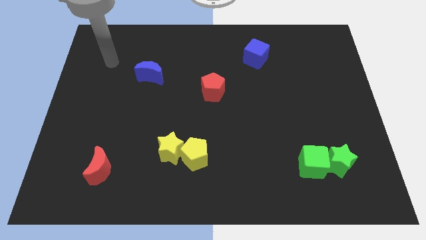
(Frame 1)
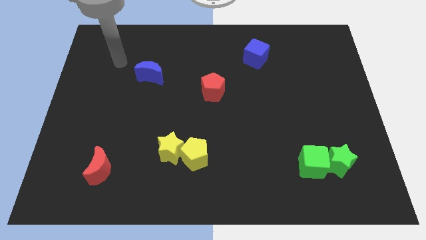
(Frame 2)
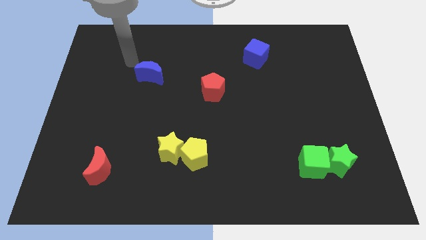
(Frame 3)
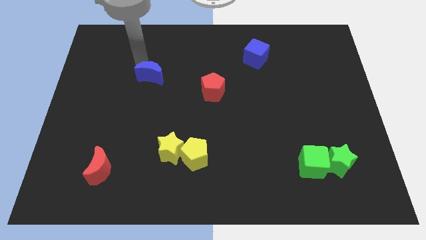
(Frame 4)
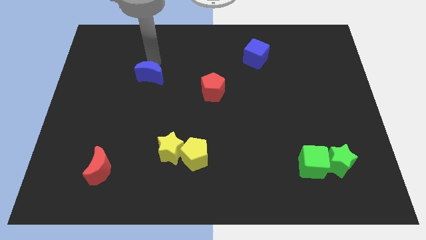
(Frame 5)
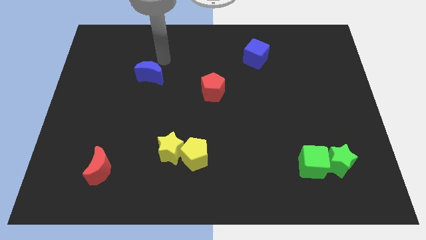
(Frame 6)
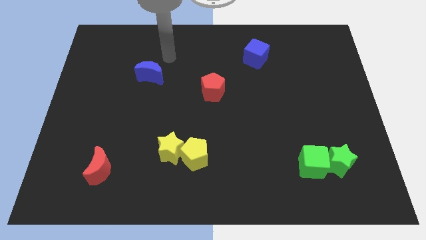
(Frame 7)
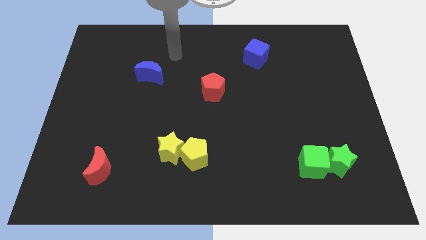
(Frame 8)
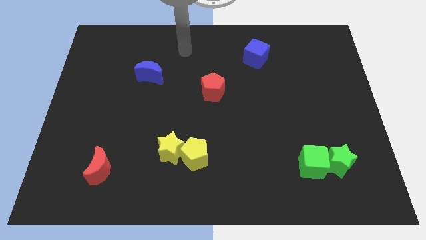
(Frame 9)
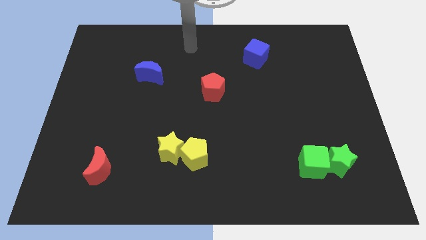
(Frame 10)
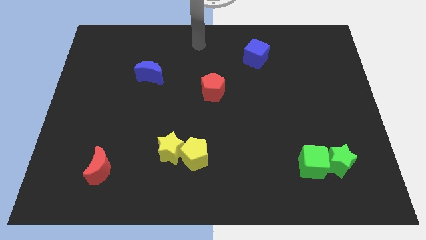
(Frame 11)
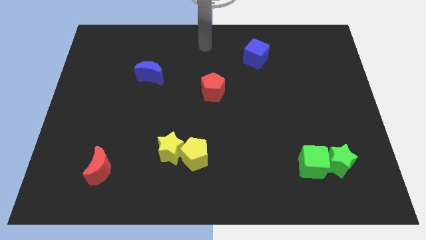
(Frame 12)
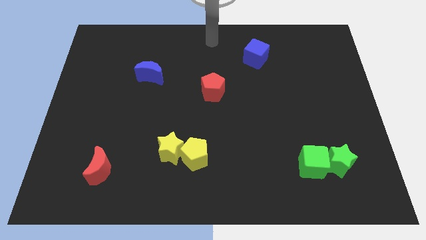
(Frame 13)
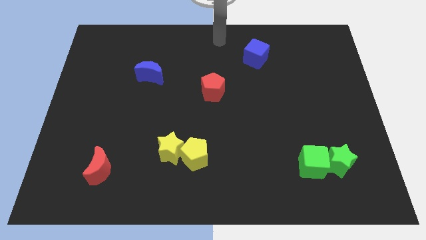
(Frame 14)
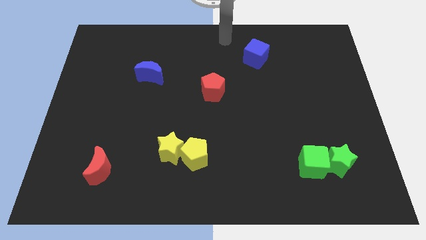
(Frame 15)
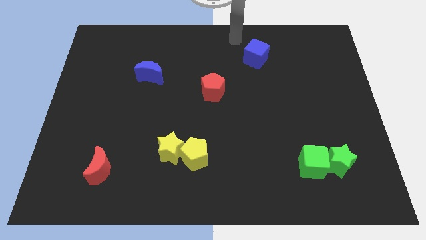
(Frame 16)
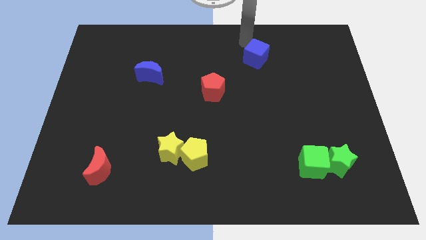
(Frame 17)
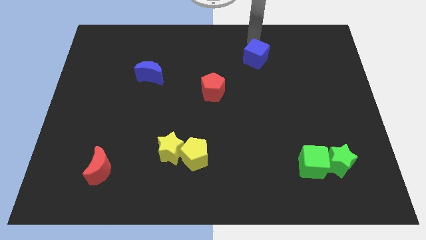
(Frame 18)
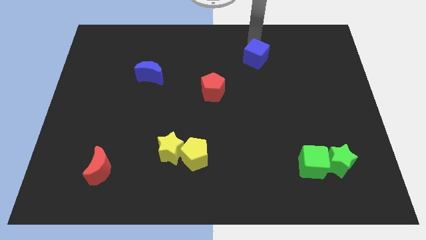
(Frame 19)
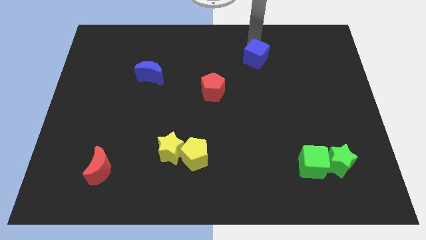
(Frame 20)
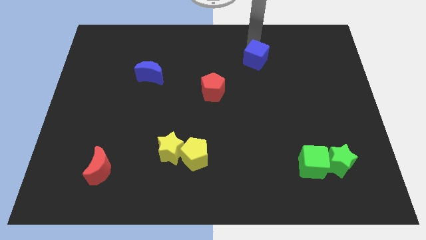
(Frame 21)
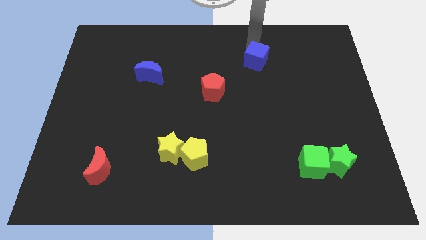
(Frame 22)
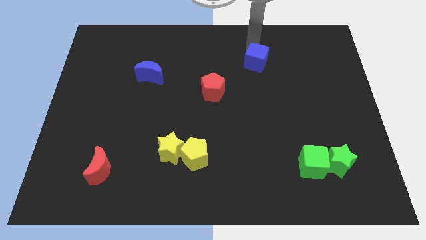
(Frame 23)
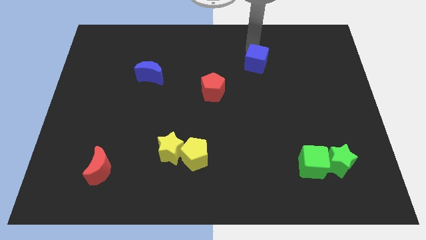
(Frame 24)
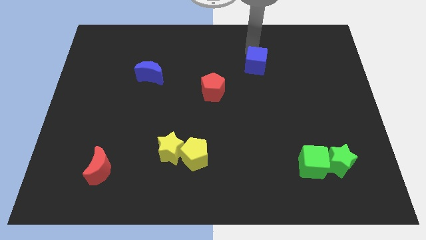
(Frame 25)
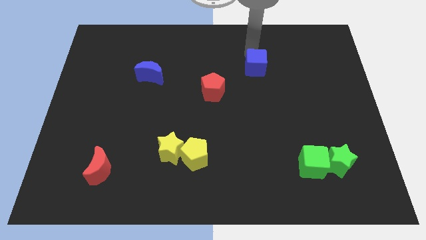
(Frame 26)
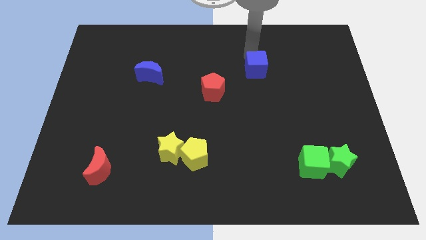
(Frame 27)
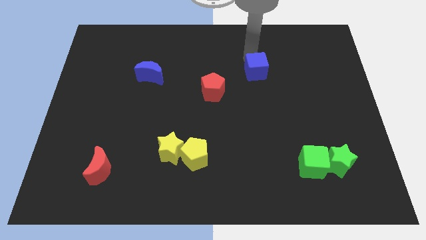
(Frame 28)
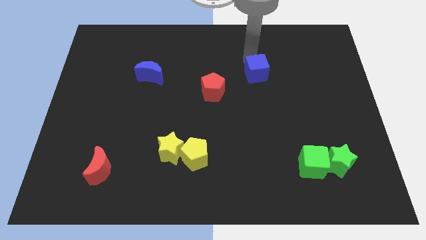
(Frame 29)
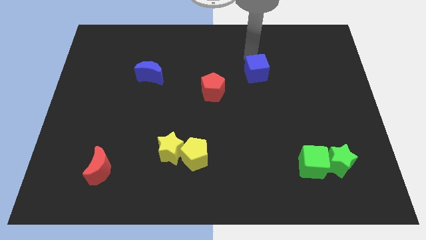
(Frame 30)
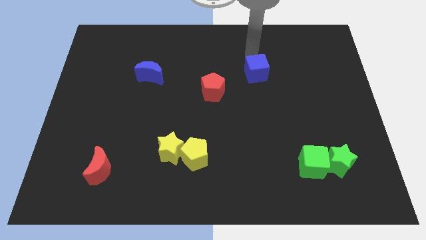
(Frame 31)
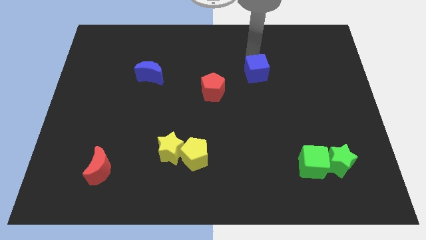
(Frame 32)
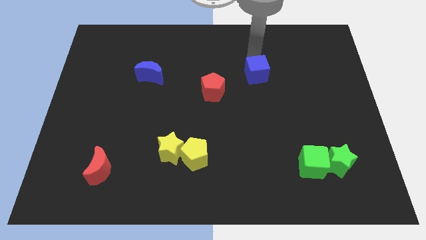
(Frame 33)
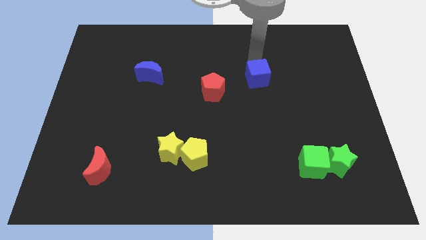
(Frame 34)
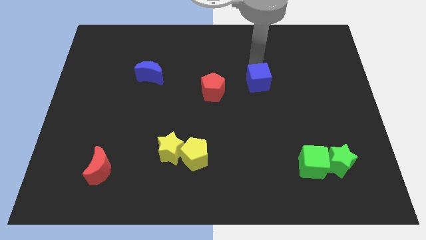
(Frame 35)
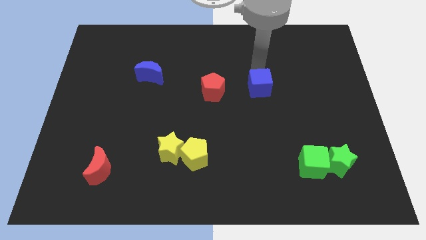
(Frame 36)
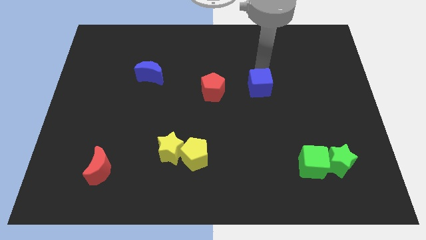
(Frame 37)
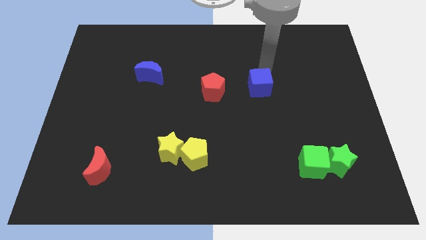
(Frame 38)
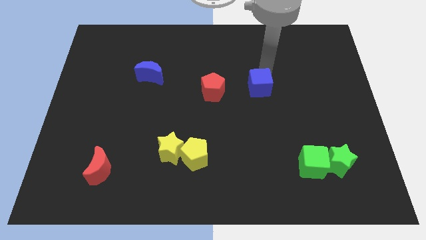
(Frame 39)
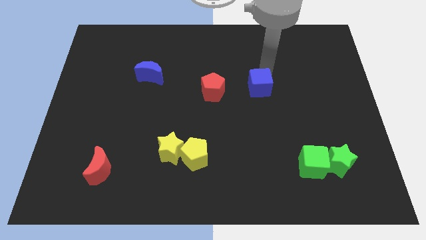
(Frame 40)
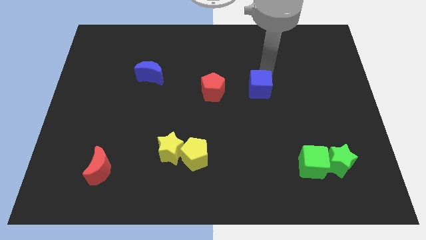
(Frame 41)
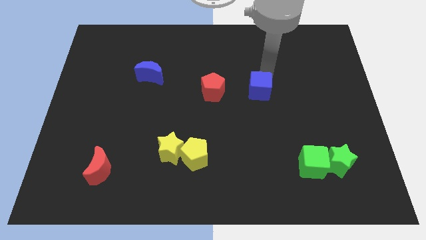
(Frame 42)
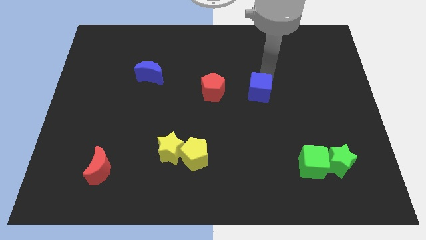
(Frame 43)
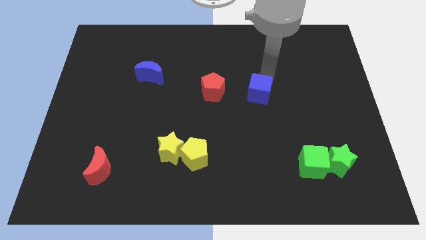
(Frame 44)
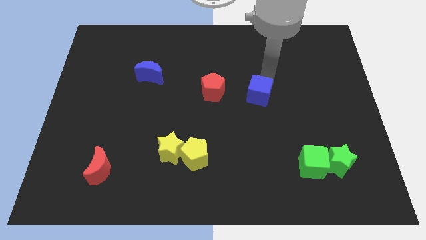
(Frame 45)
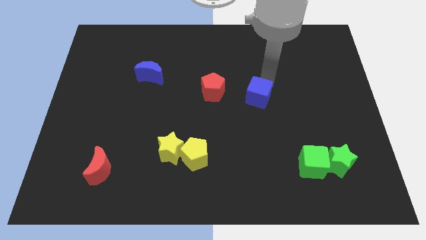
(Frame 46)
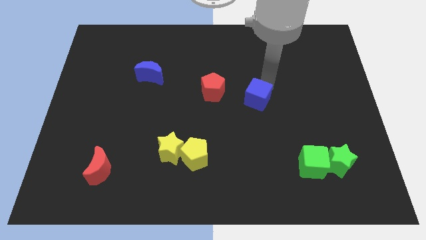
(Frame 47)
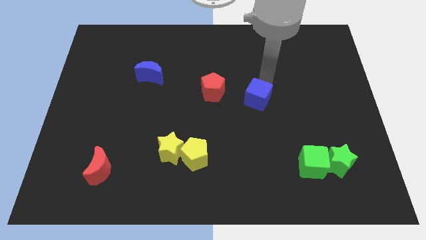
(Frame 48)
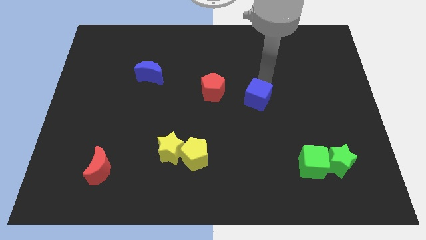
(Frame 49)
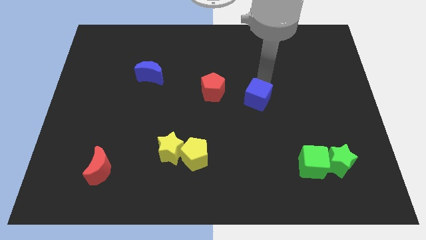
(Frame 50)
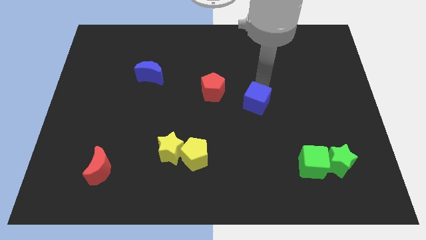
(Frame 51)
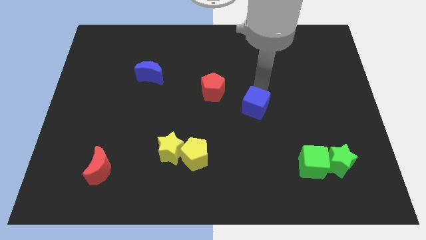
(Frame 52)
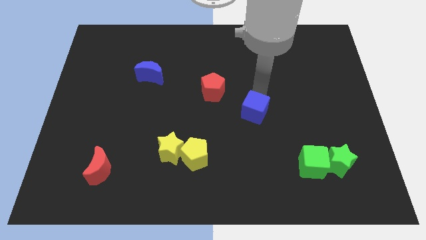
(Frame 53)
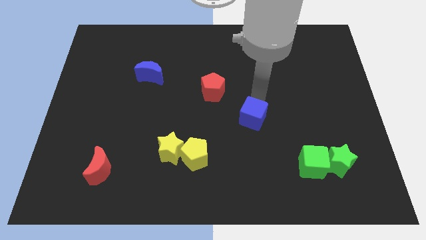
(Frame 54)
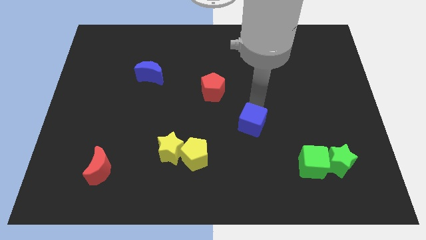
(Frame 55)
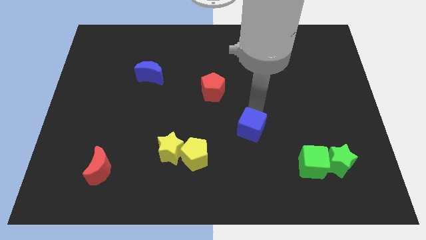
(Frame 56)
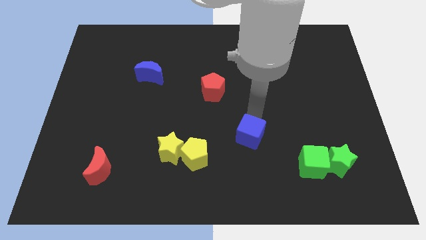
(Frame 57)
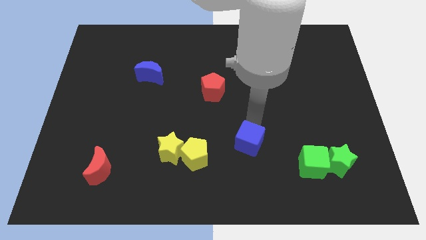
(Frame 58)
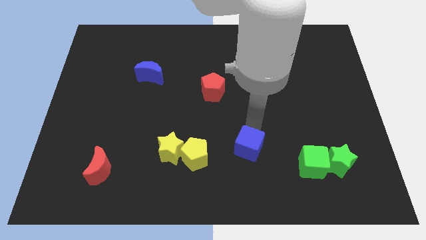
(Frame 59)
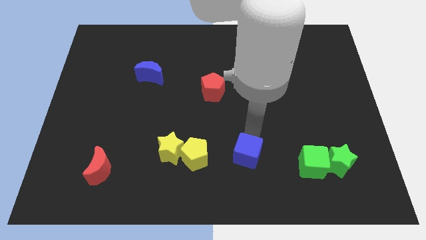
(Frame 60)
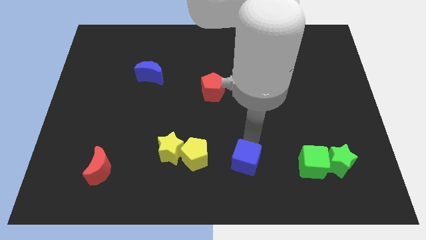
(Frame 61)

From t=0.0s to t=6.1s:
slide the blue cube to the bottom side

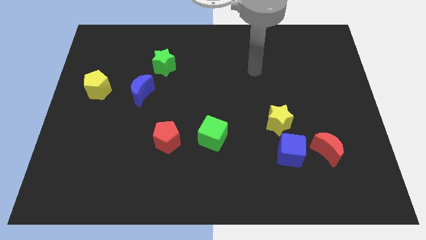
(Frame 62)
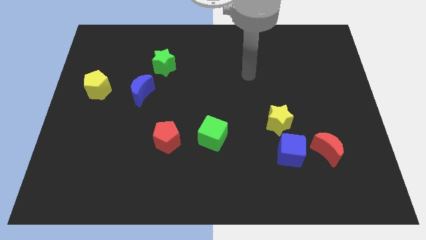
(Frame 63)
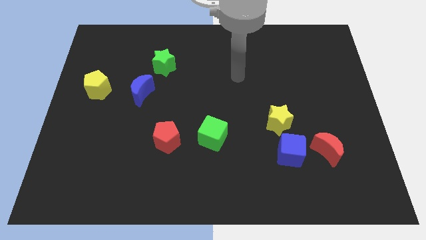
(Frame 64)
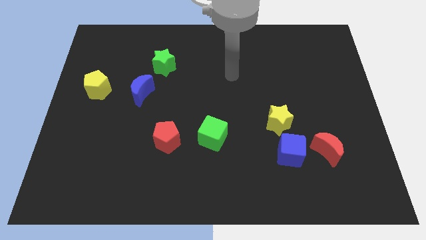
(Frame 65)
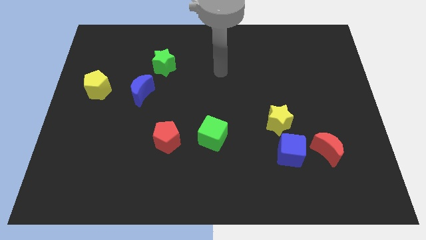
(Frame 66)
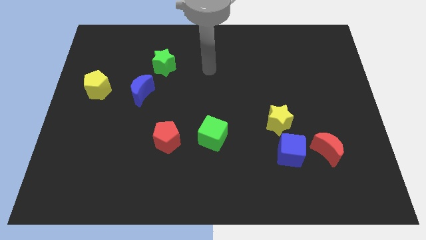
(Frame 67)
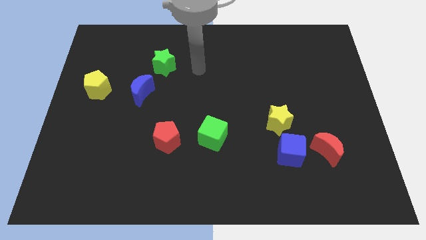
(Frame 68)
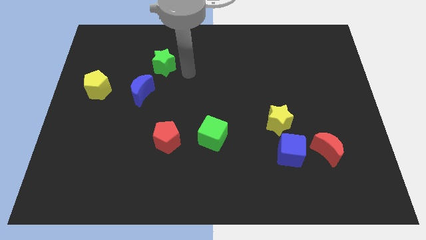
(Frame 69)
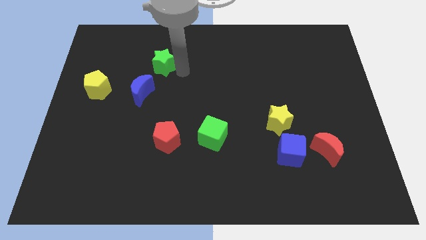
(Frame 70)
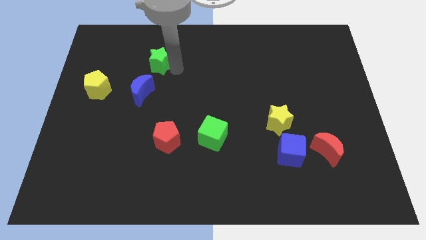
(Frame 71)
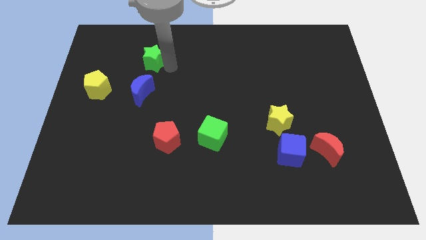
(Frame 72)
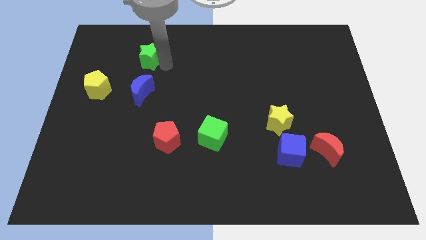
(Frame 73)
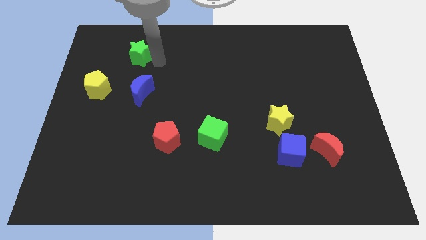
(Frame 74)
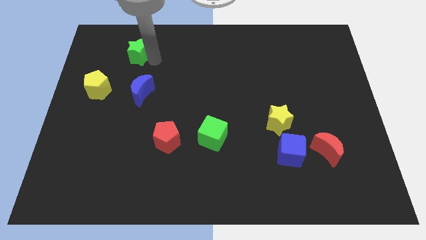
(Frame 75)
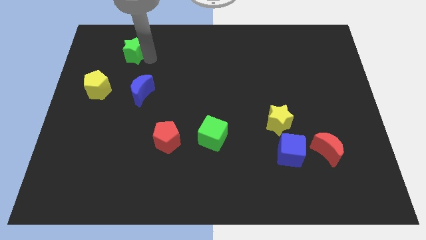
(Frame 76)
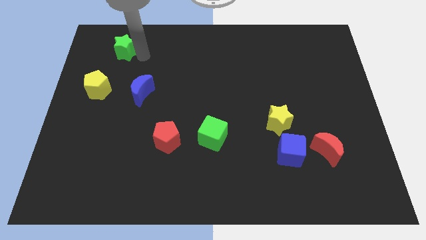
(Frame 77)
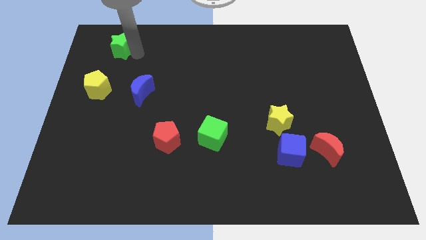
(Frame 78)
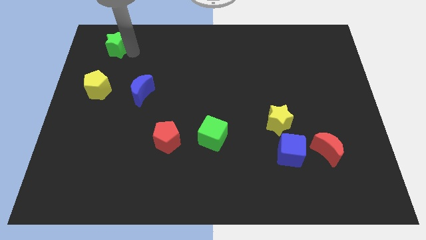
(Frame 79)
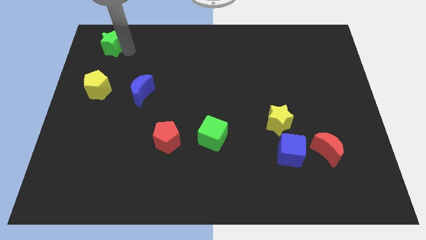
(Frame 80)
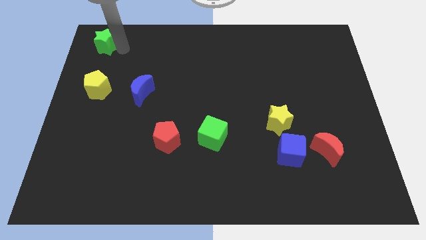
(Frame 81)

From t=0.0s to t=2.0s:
slide the green star to the upper left corner
